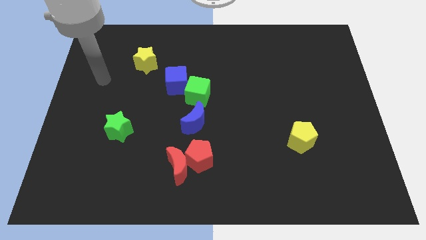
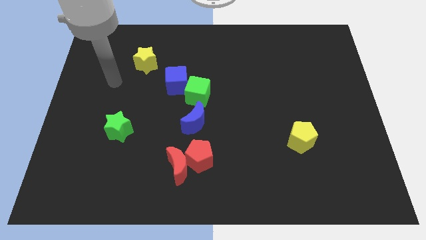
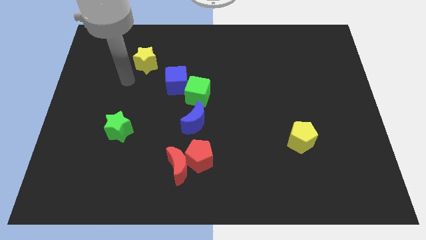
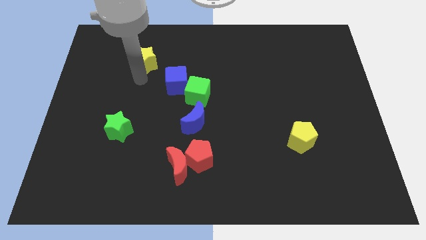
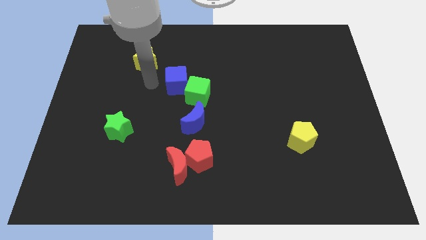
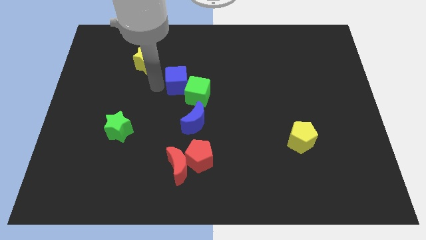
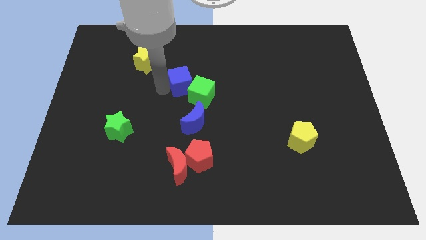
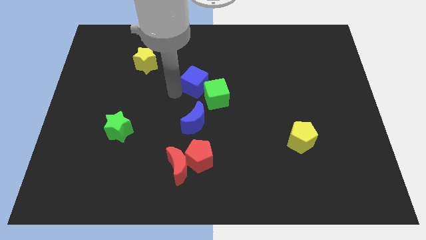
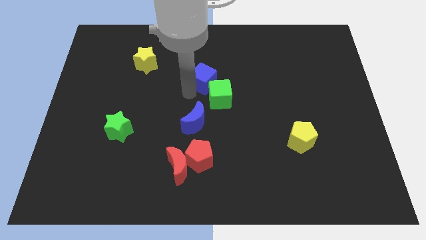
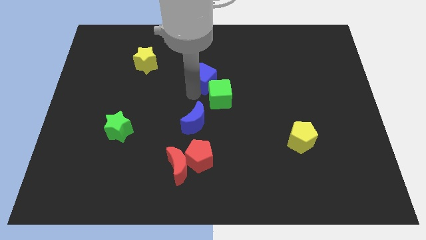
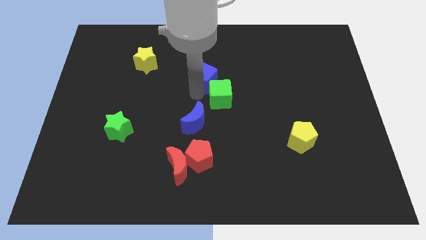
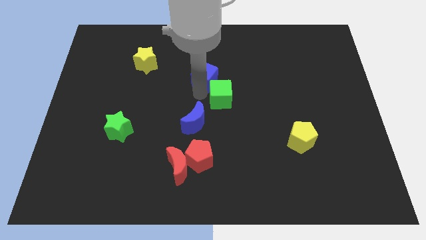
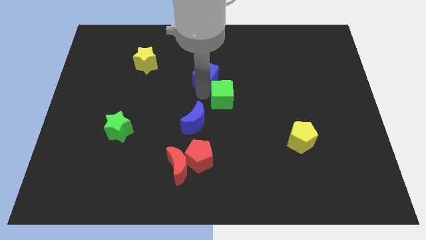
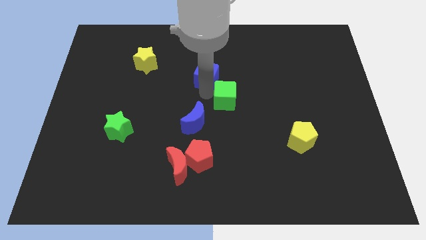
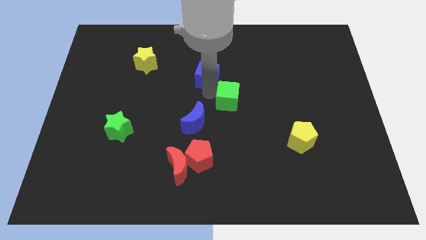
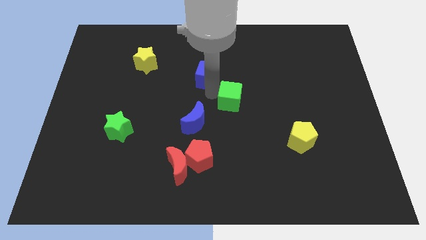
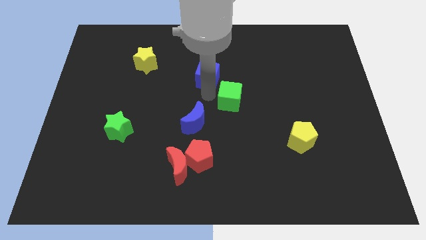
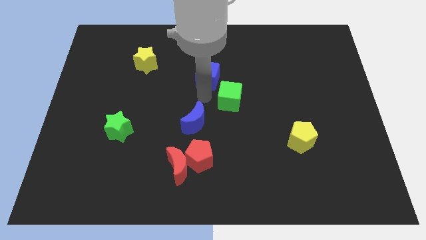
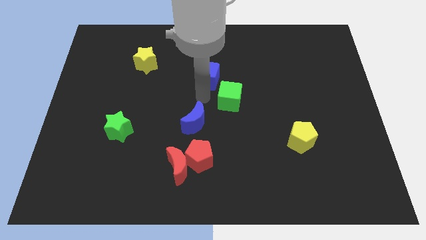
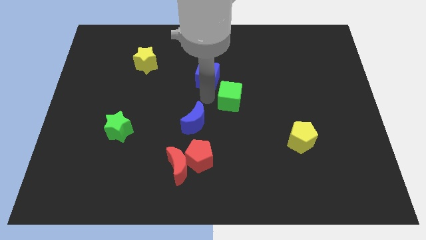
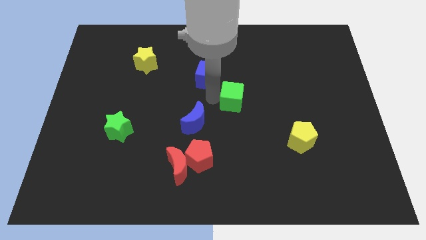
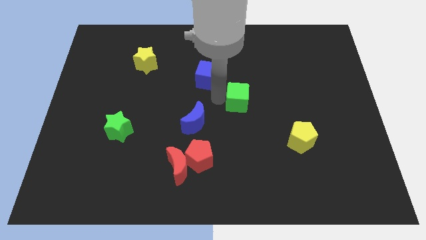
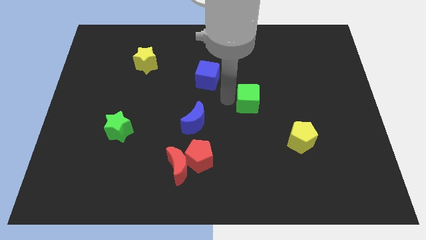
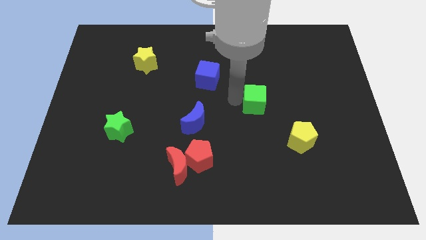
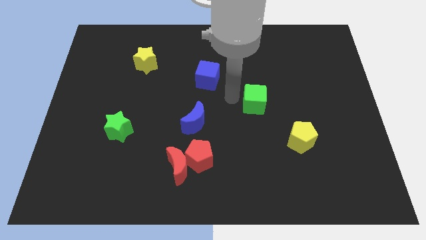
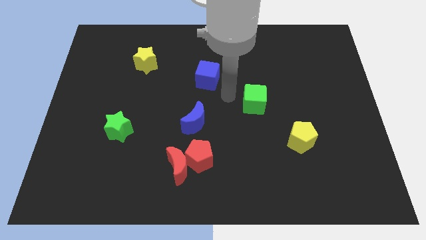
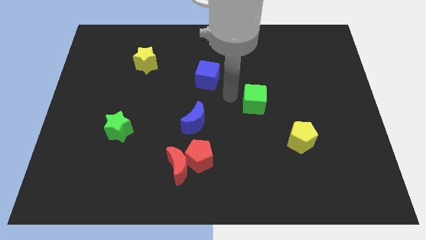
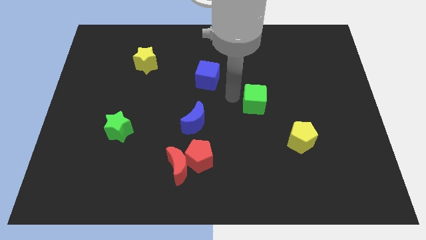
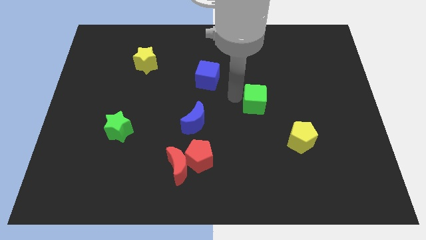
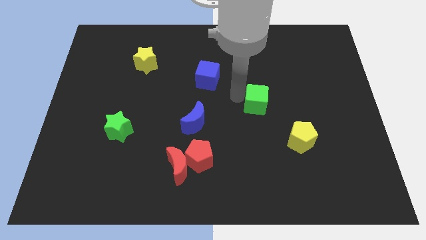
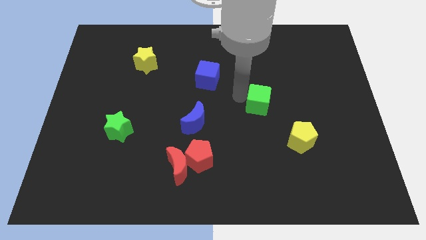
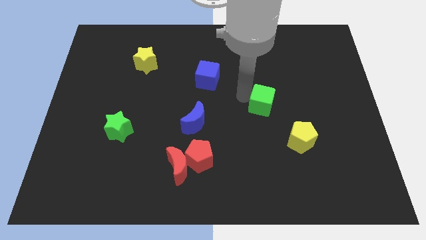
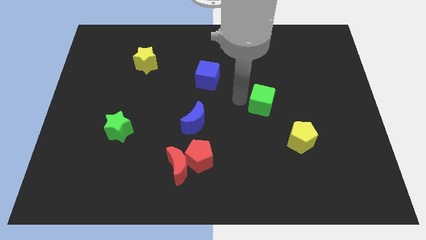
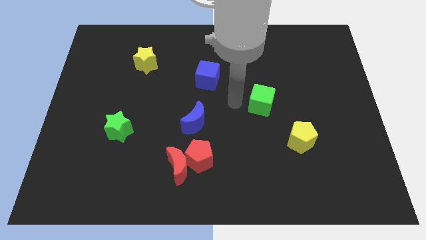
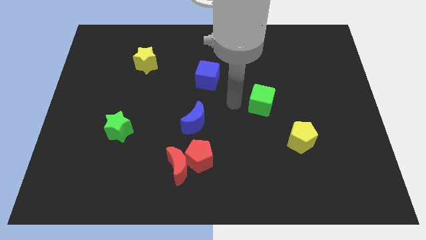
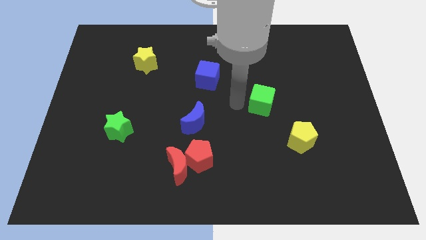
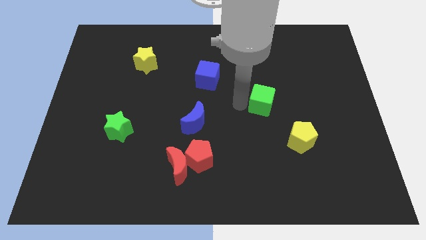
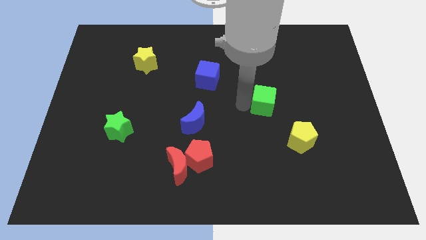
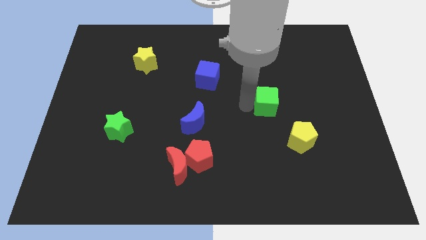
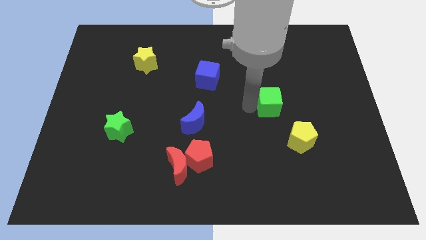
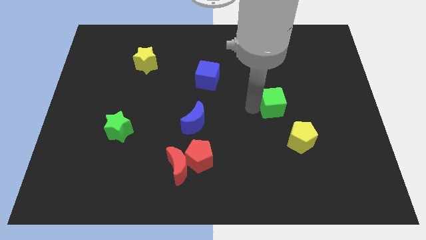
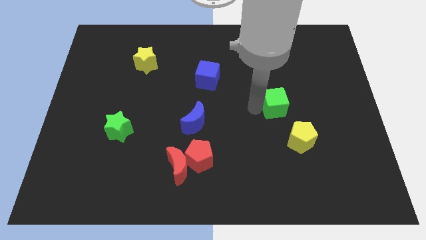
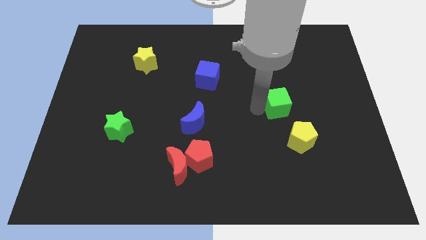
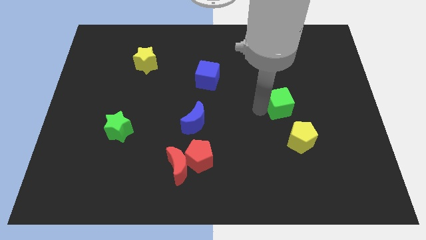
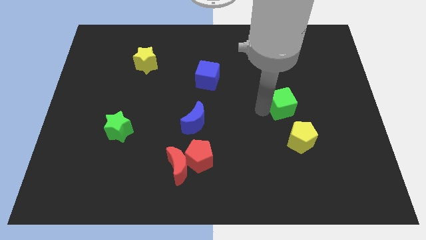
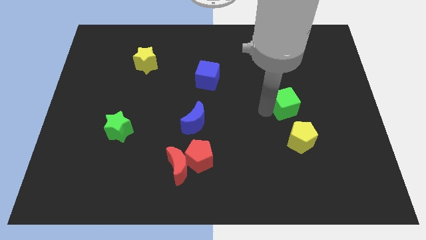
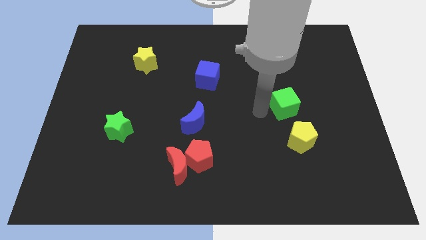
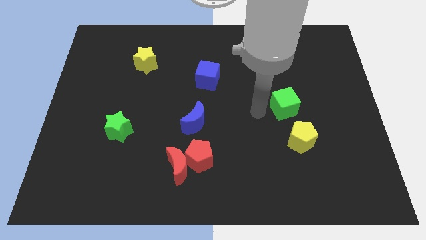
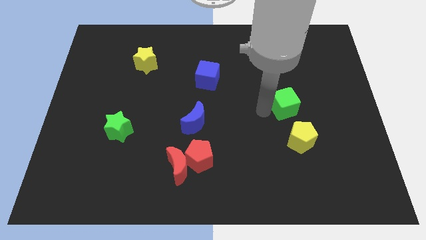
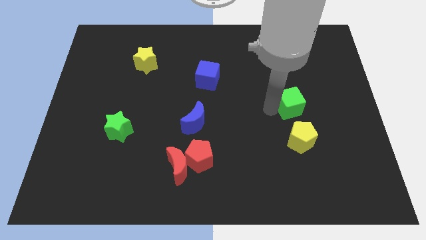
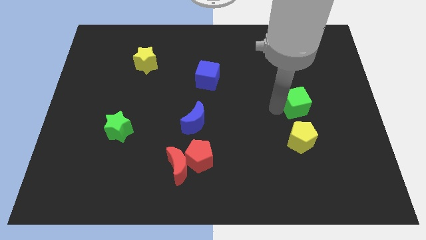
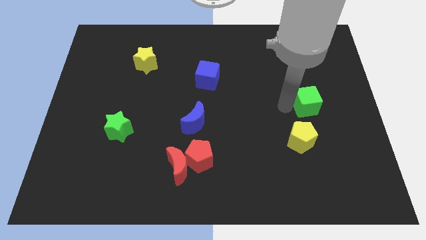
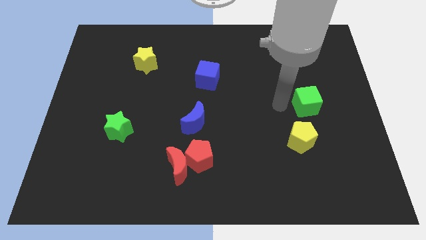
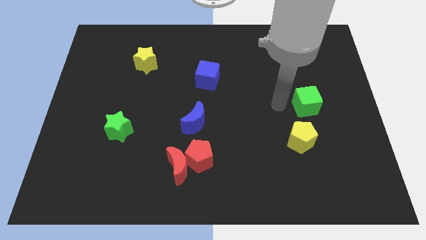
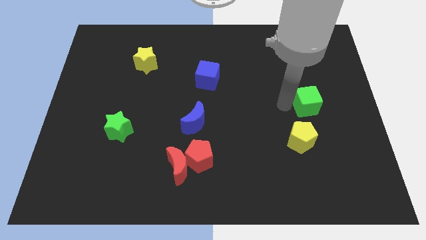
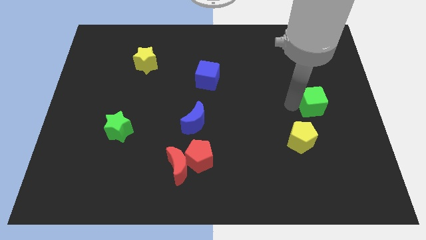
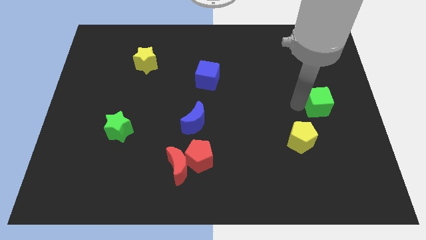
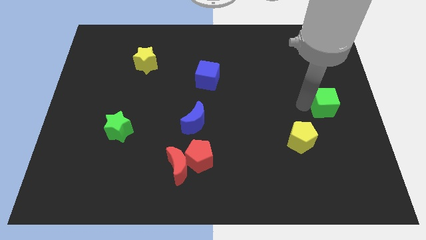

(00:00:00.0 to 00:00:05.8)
put the green cube to the right side of the board
